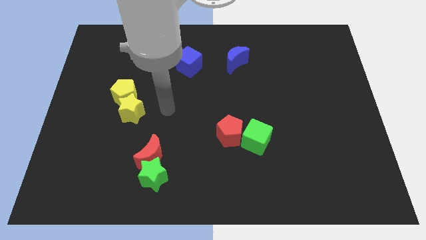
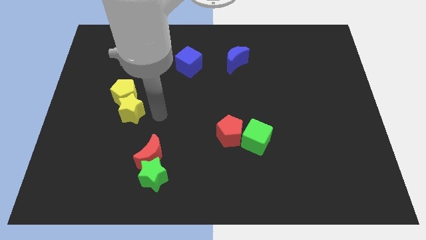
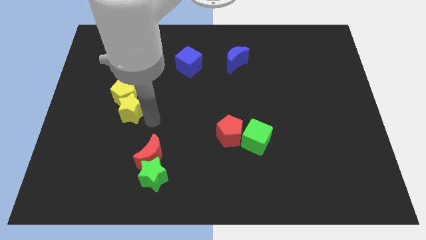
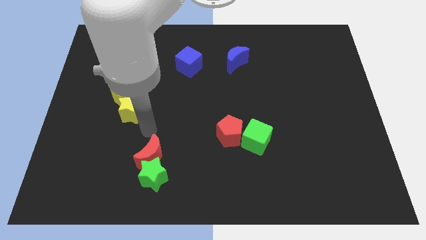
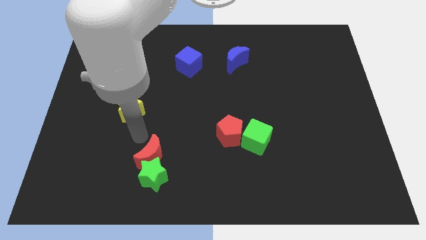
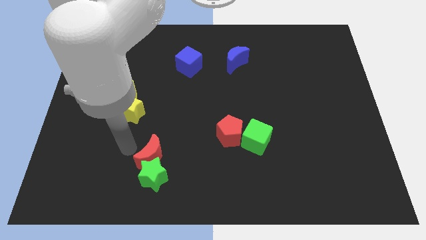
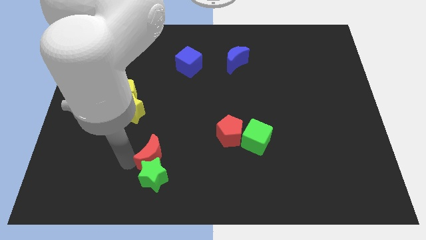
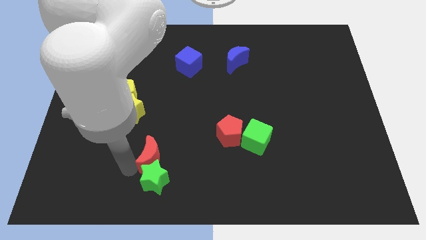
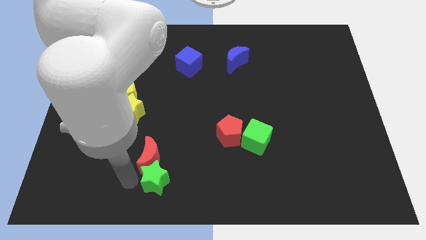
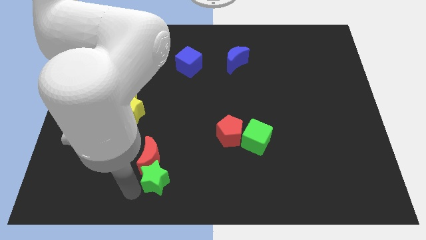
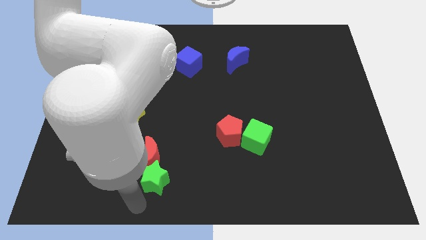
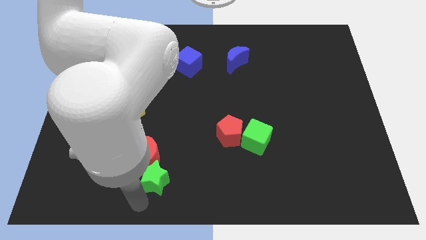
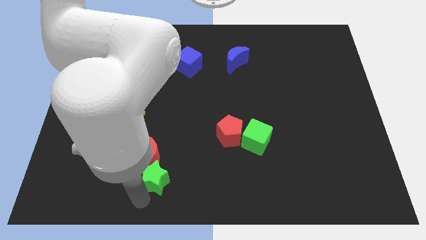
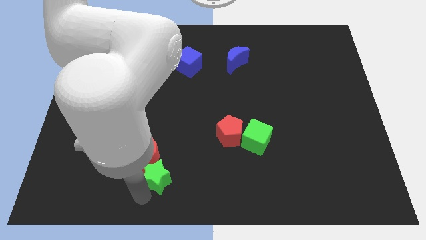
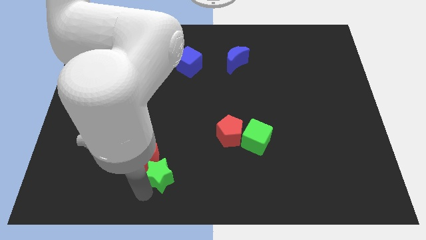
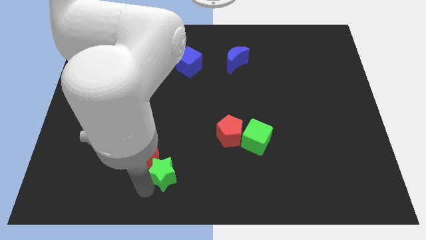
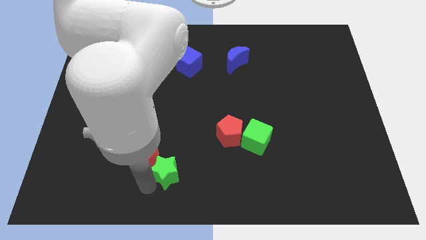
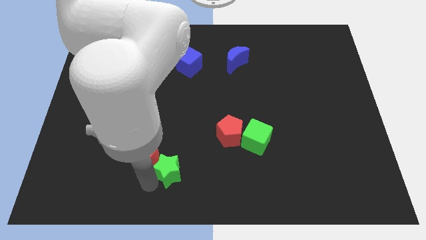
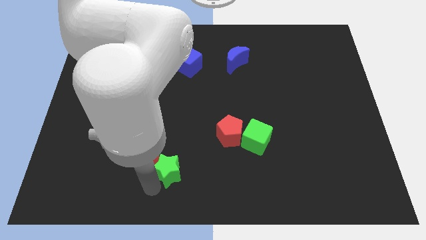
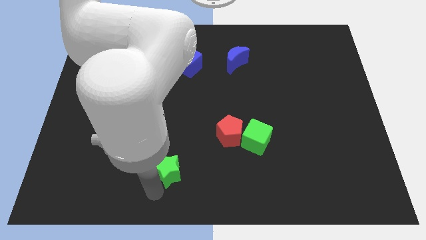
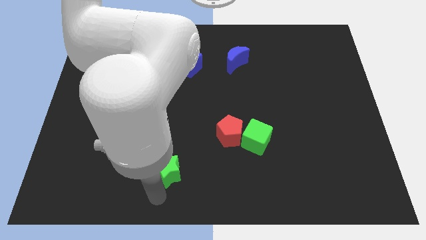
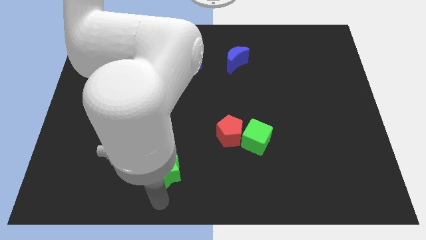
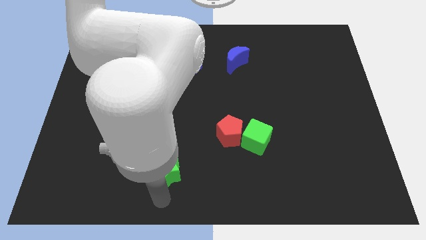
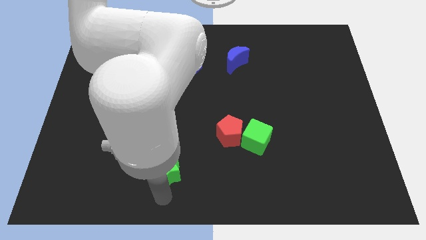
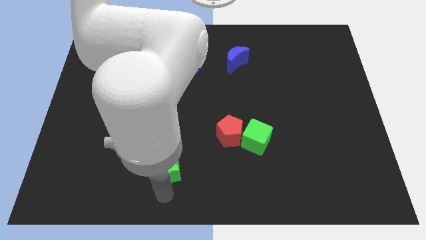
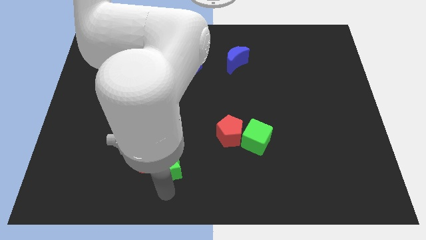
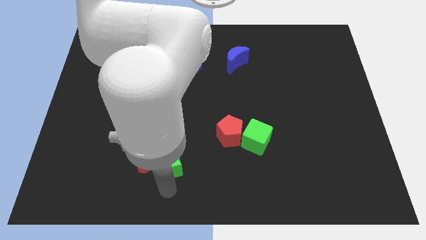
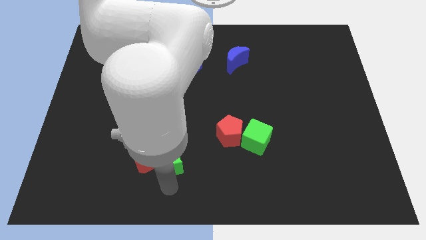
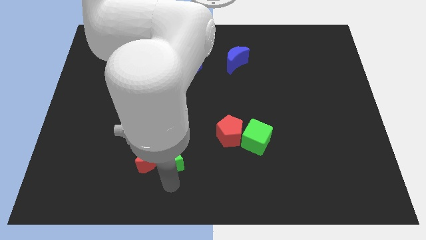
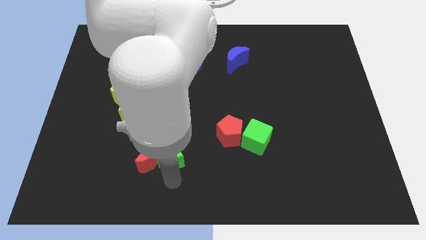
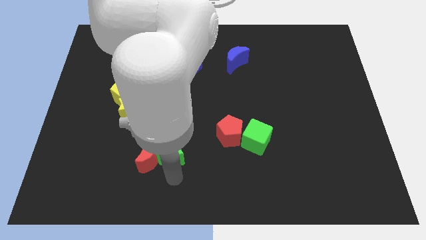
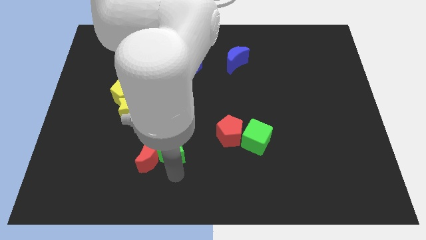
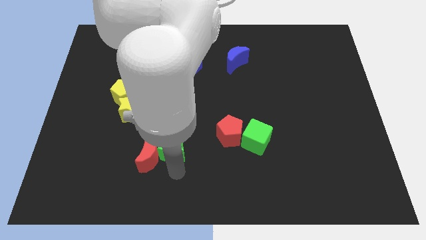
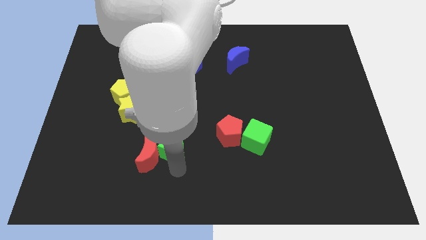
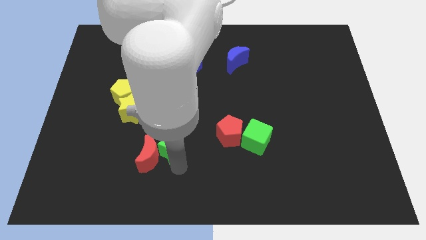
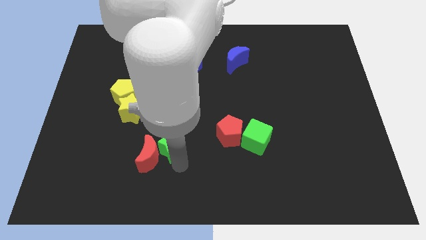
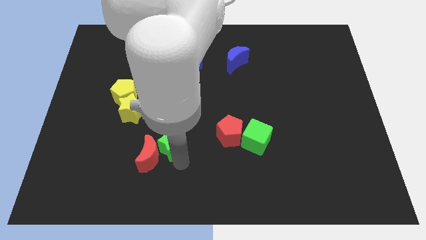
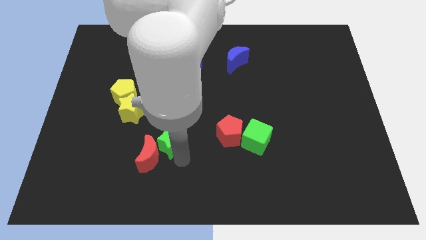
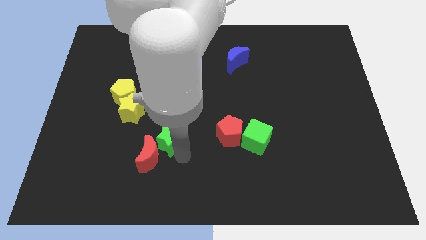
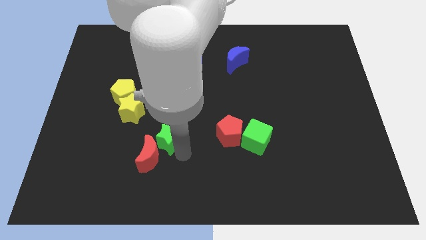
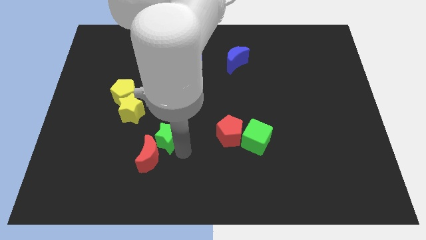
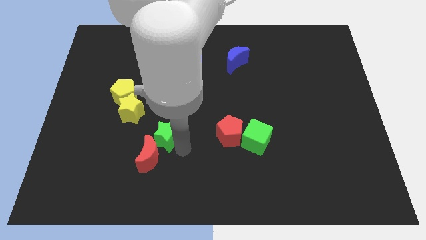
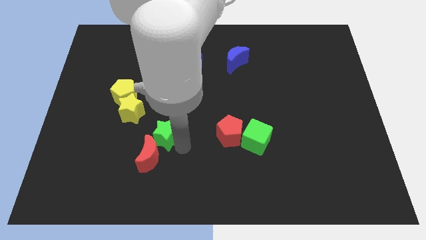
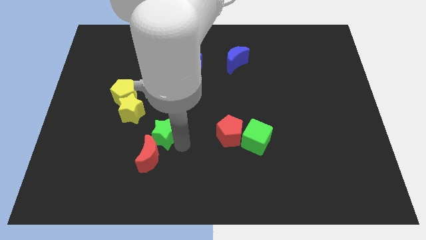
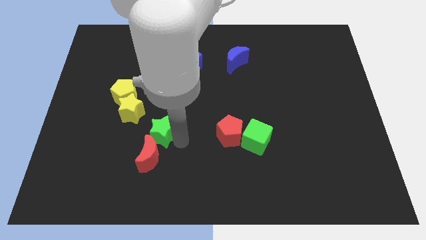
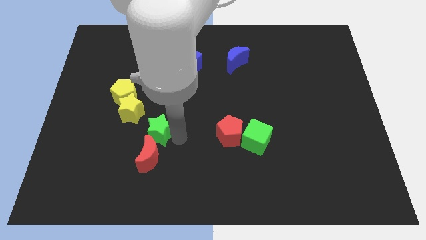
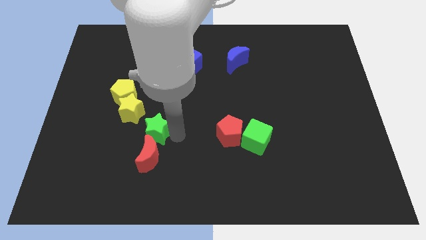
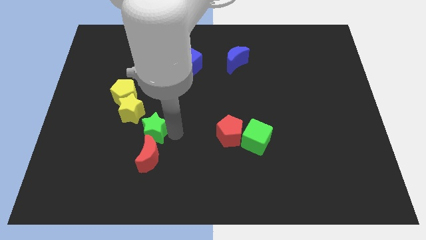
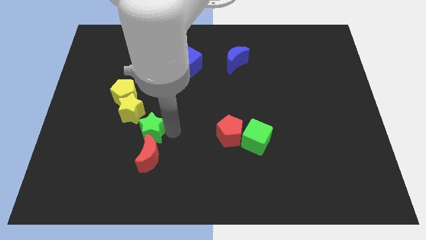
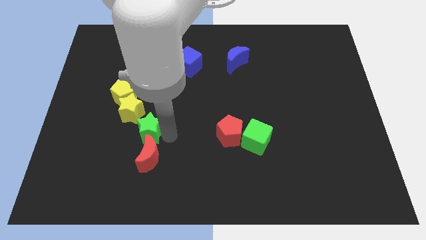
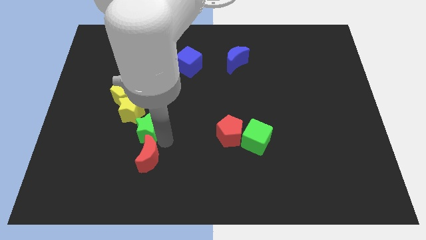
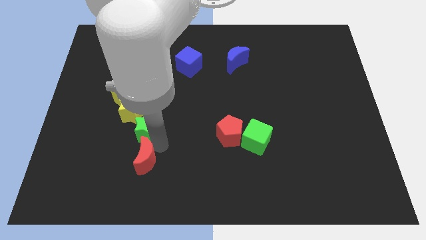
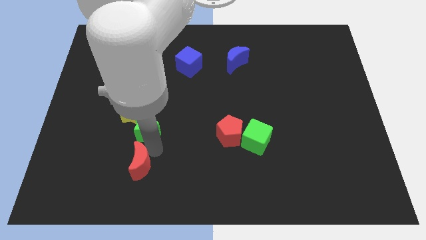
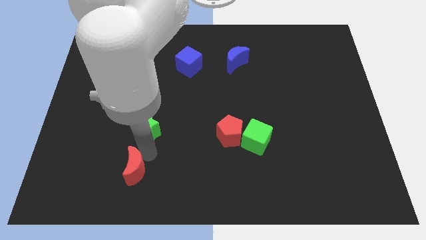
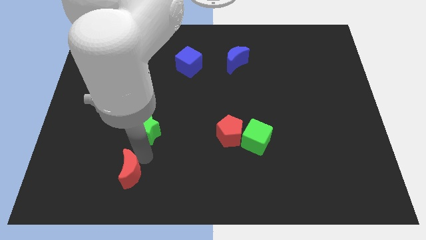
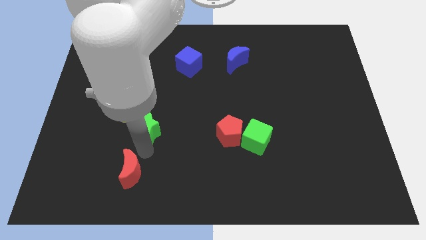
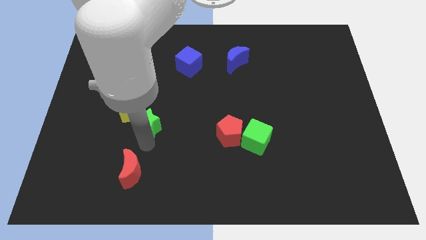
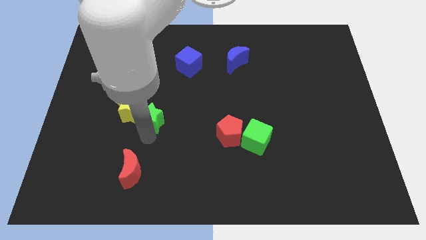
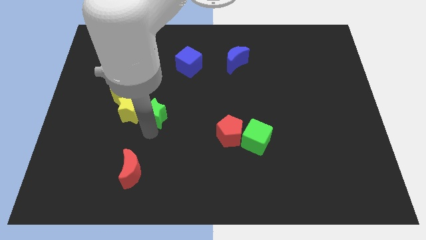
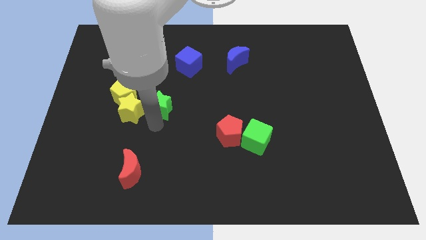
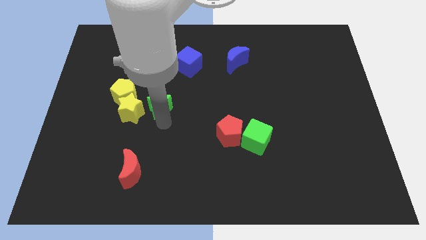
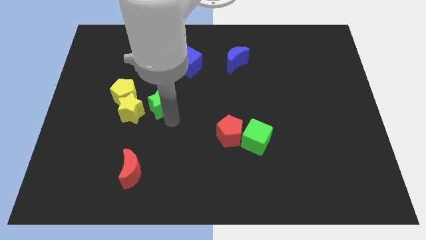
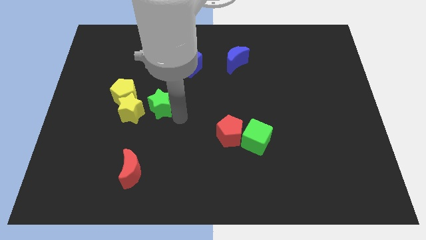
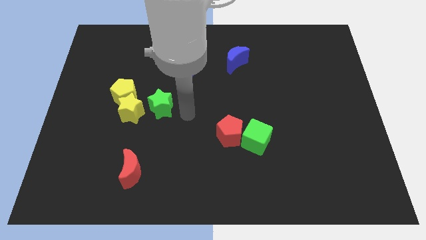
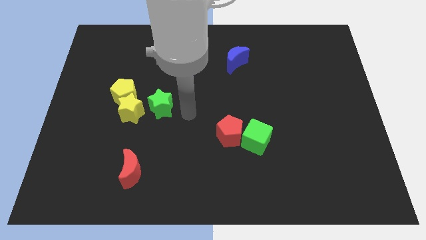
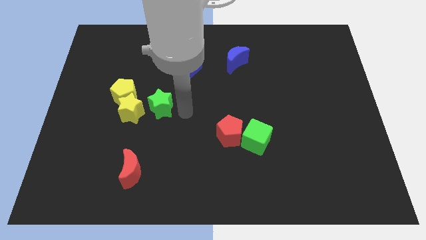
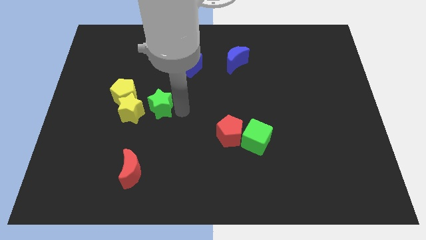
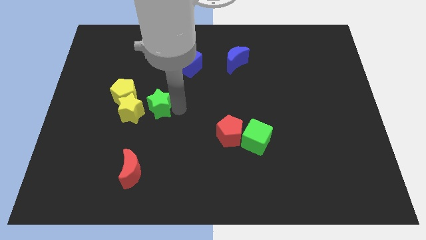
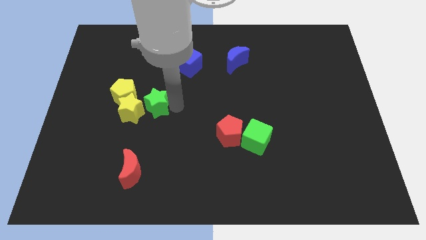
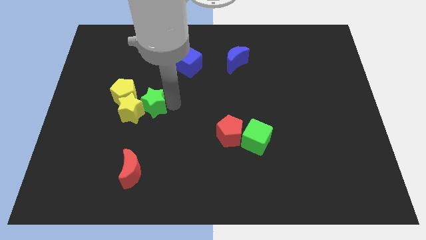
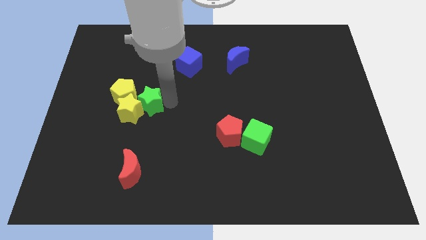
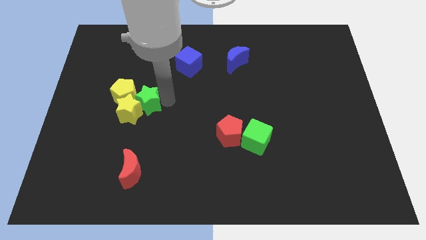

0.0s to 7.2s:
move the green star towards the yellow pentagon

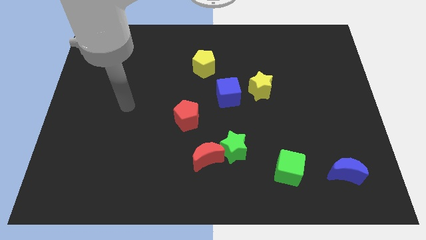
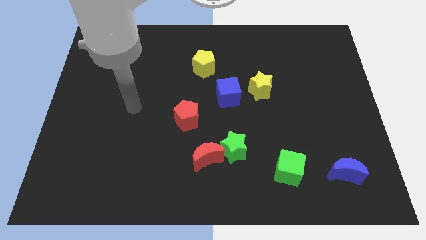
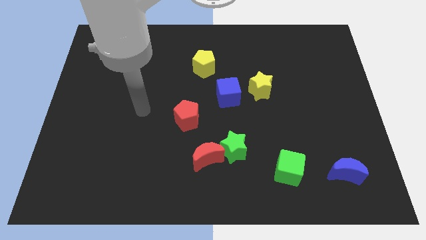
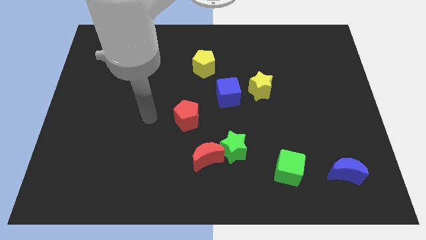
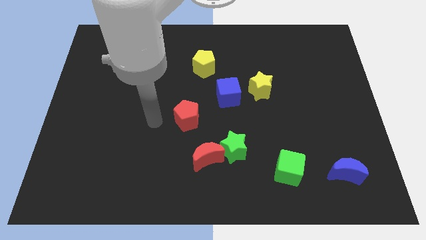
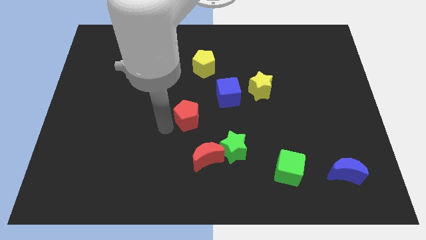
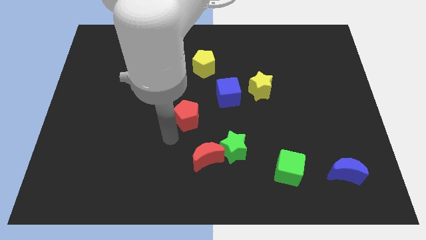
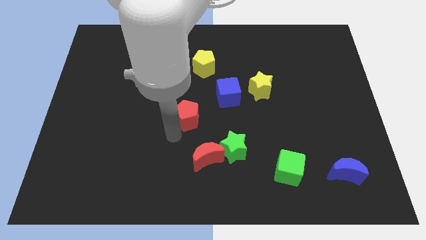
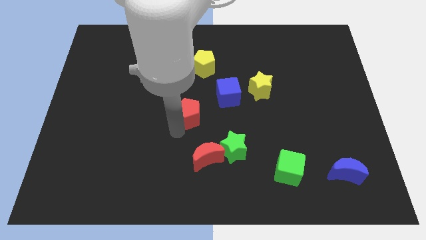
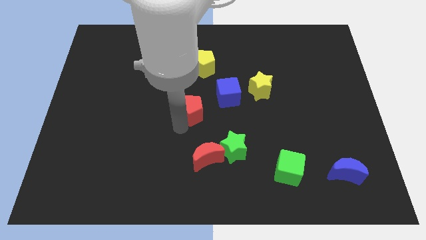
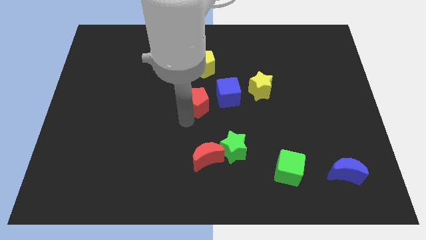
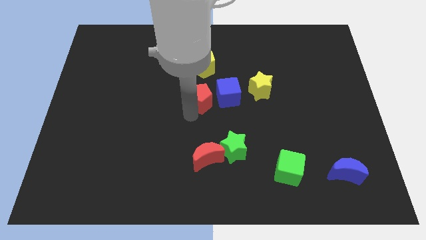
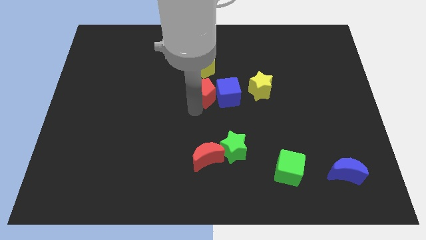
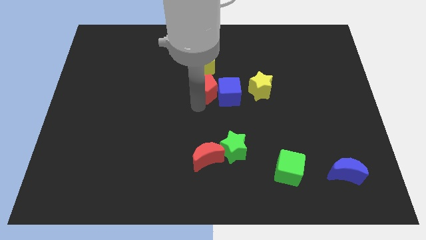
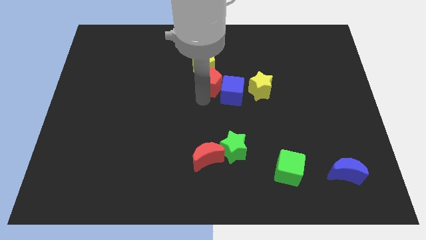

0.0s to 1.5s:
move the red pentagon close to the yellow pentagon
